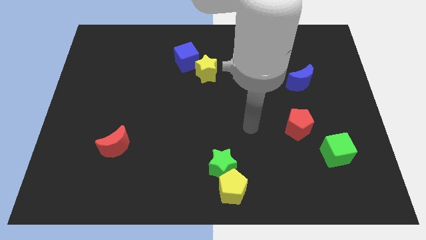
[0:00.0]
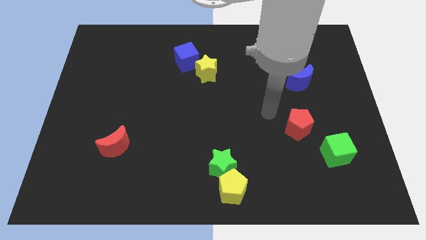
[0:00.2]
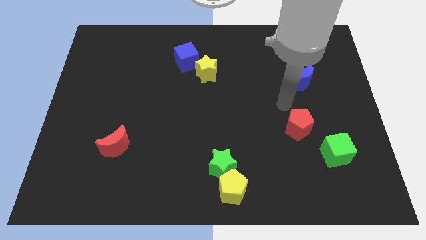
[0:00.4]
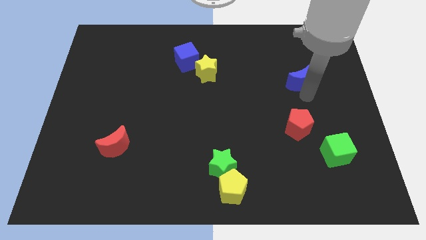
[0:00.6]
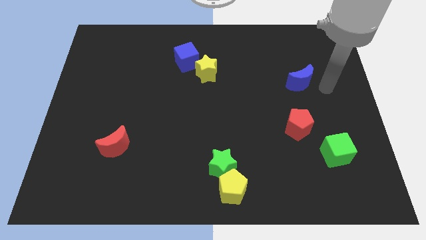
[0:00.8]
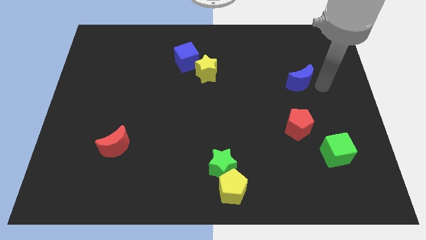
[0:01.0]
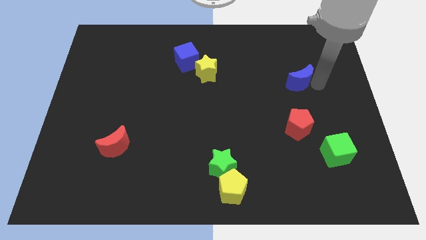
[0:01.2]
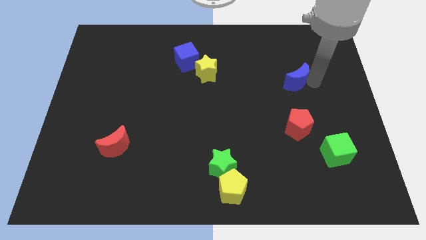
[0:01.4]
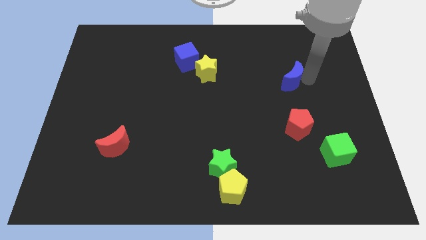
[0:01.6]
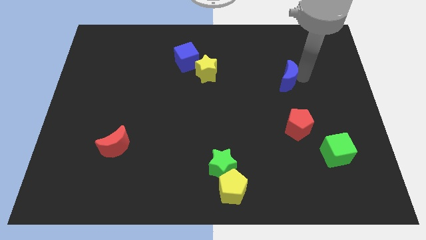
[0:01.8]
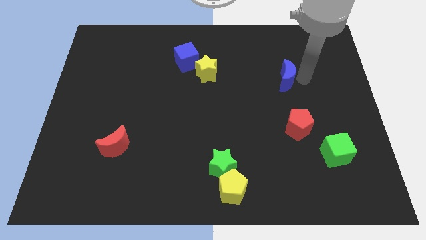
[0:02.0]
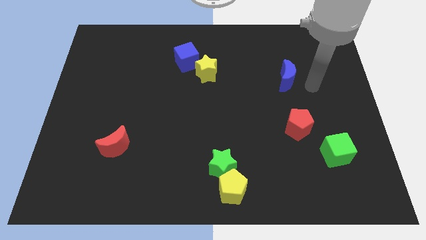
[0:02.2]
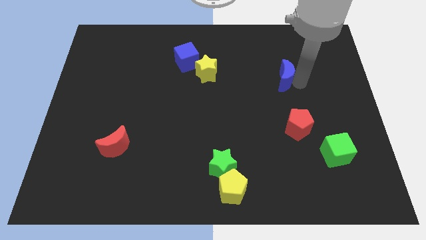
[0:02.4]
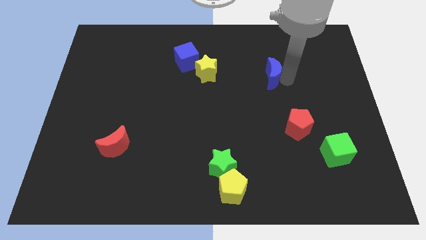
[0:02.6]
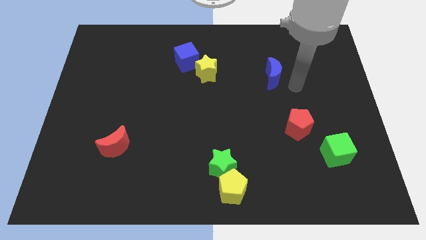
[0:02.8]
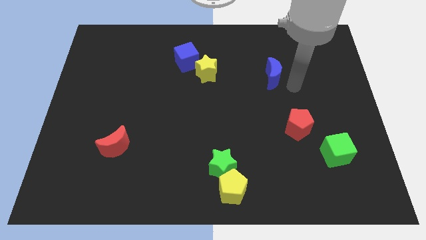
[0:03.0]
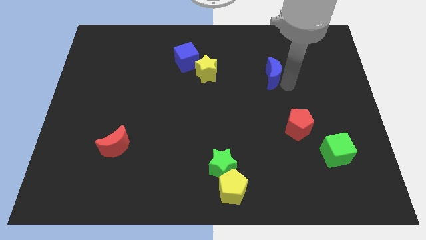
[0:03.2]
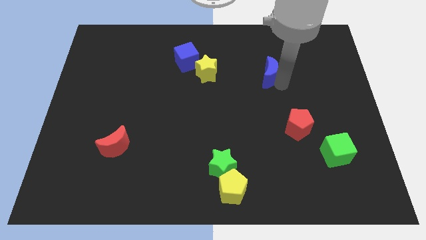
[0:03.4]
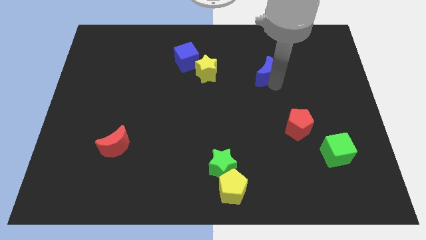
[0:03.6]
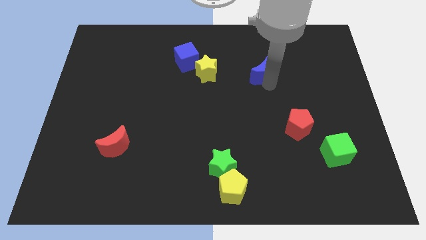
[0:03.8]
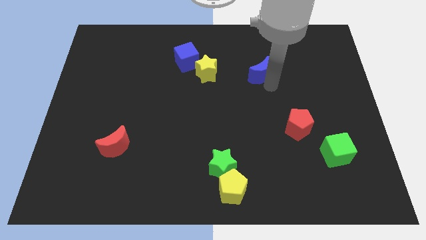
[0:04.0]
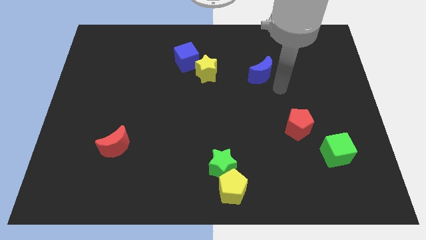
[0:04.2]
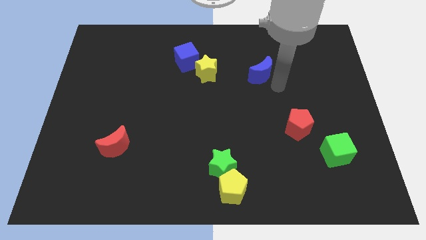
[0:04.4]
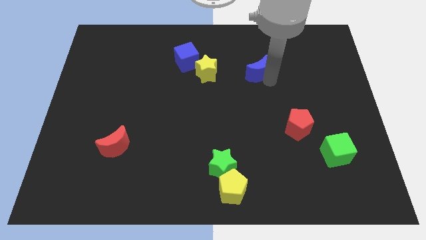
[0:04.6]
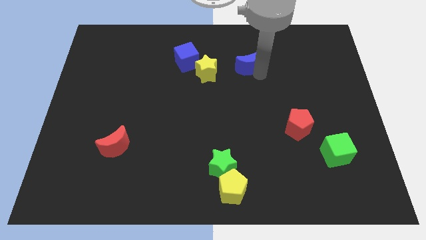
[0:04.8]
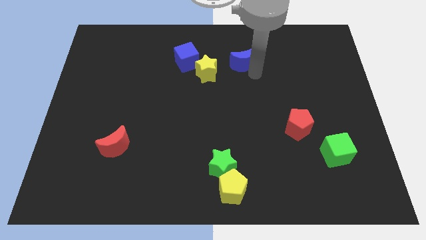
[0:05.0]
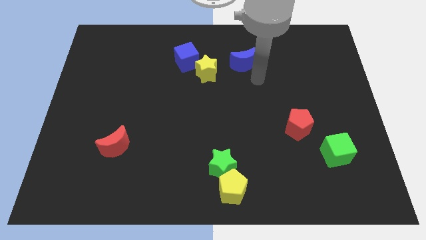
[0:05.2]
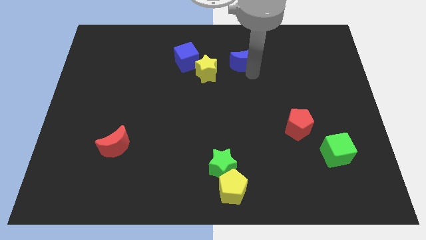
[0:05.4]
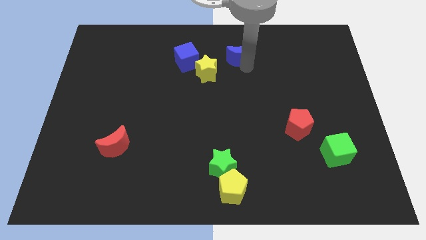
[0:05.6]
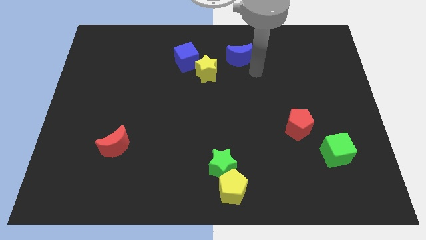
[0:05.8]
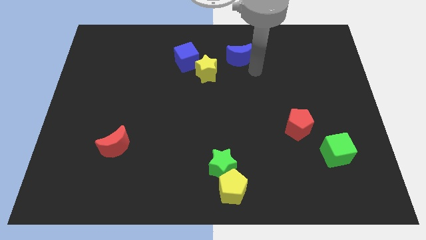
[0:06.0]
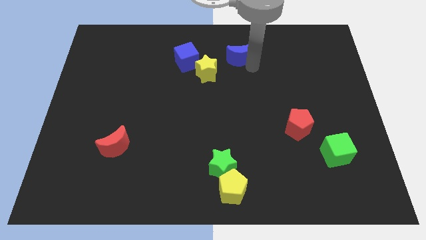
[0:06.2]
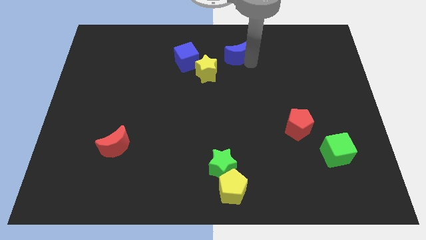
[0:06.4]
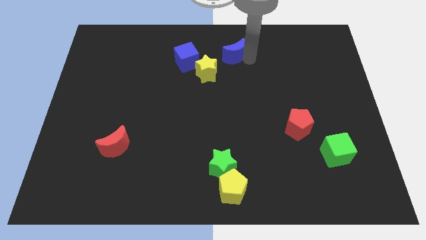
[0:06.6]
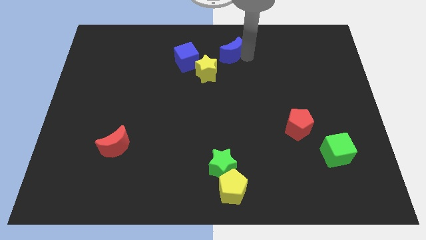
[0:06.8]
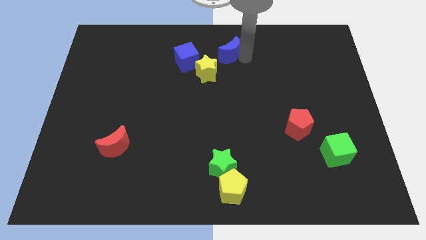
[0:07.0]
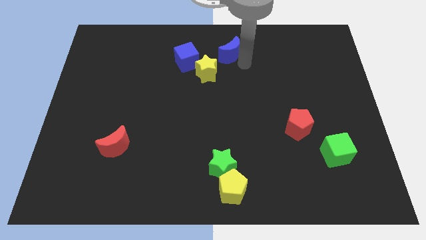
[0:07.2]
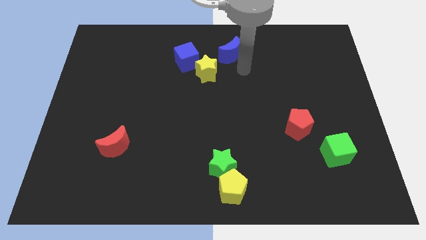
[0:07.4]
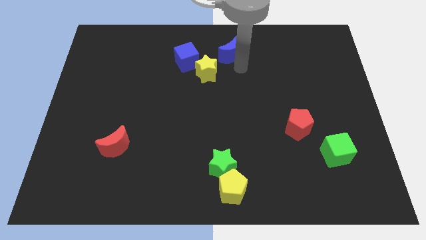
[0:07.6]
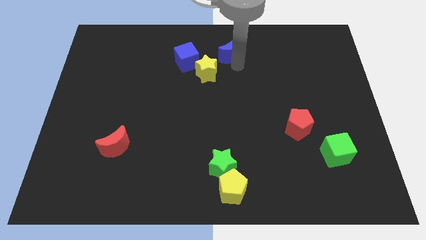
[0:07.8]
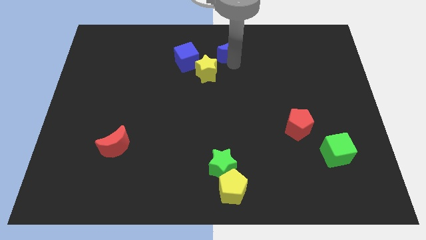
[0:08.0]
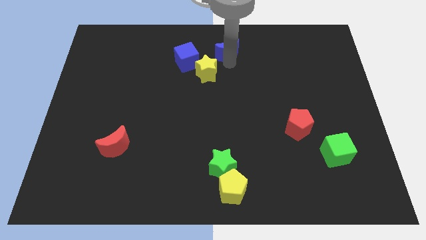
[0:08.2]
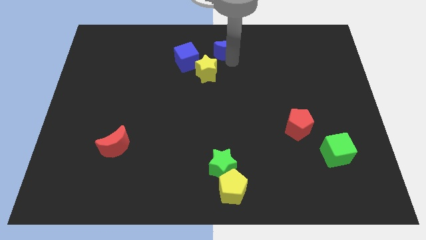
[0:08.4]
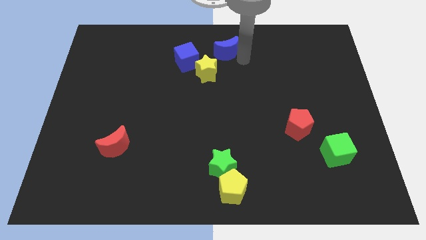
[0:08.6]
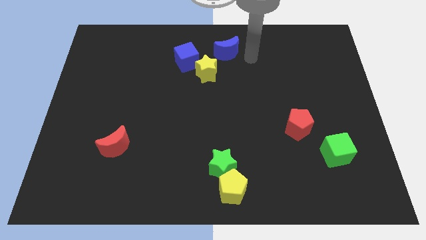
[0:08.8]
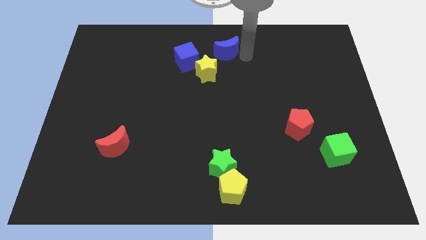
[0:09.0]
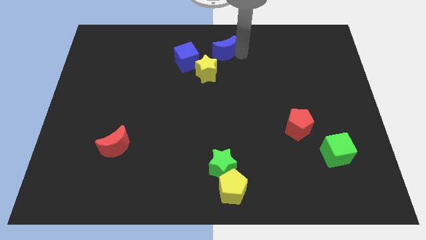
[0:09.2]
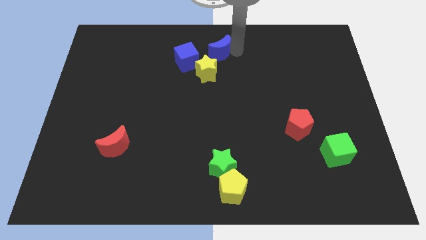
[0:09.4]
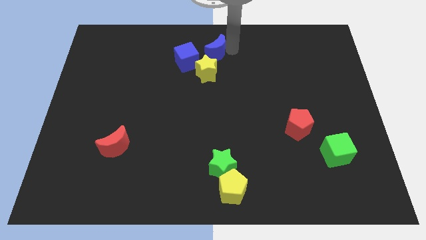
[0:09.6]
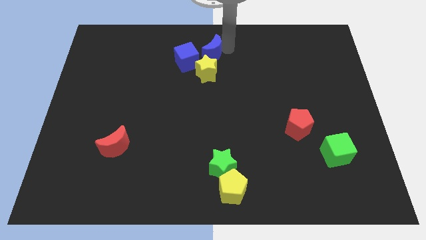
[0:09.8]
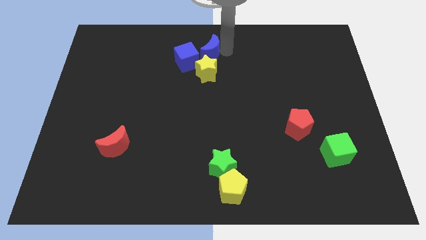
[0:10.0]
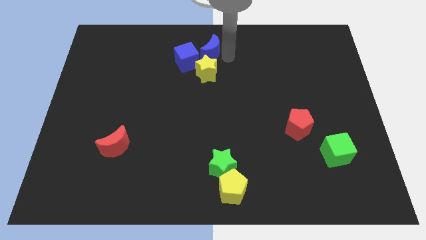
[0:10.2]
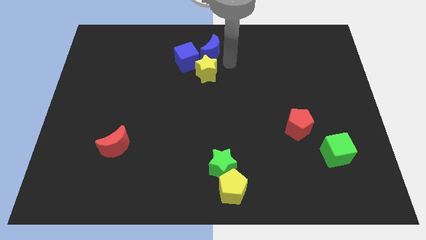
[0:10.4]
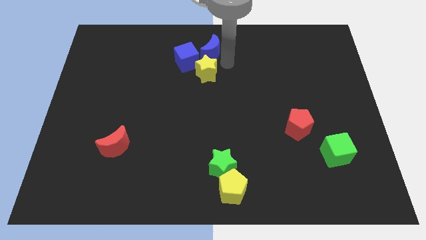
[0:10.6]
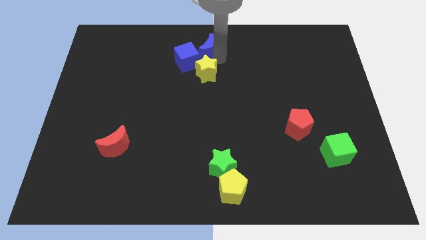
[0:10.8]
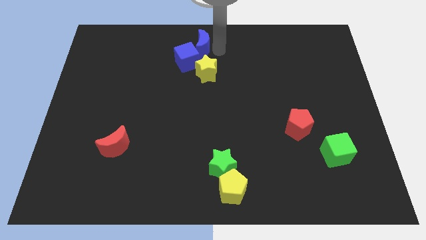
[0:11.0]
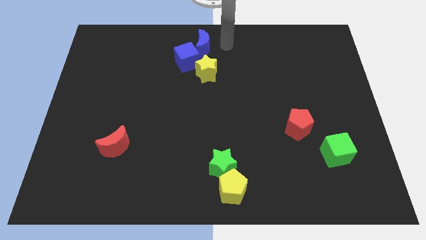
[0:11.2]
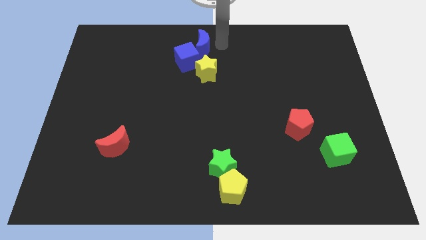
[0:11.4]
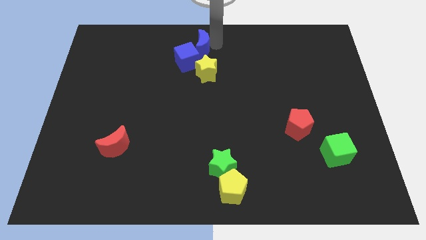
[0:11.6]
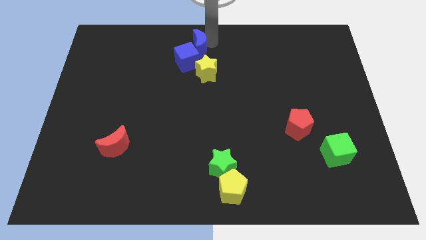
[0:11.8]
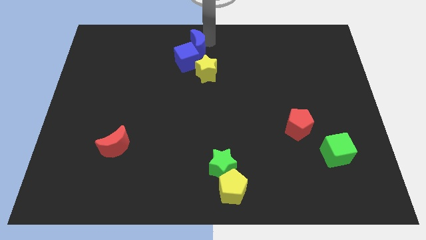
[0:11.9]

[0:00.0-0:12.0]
put the blue moon to the top left of the yellow star
